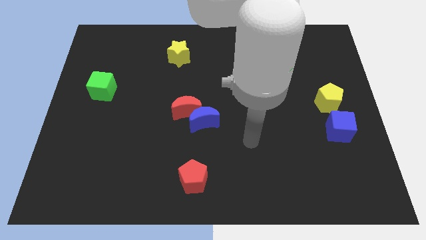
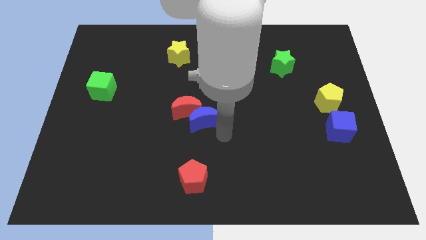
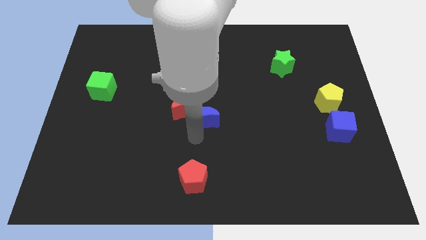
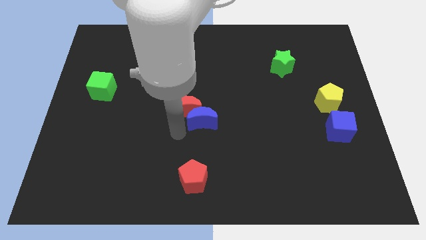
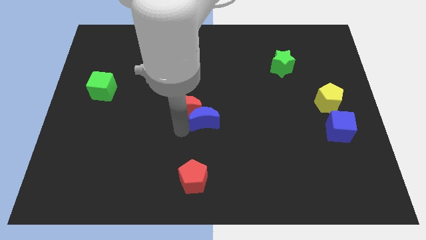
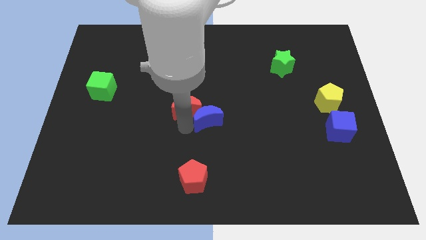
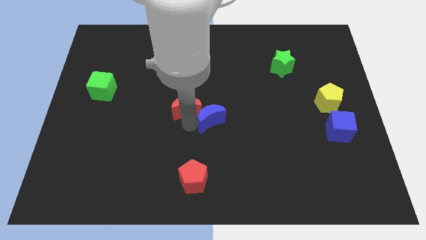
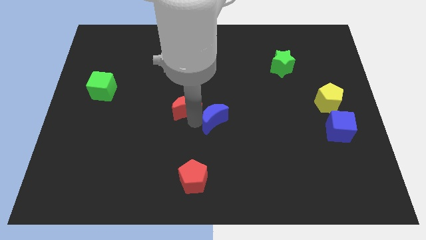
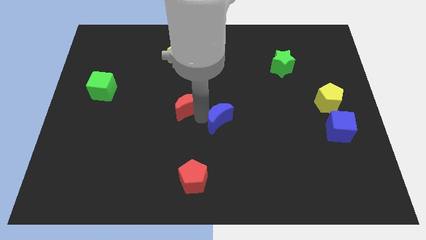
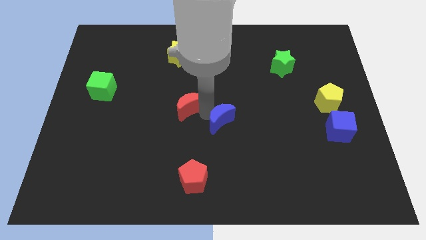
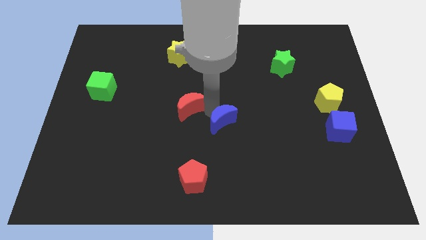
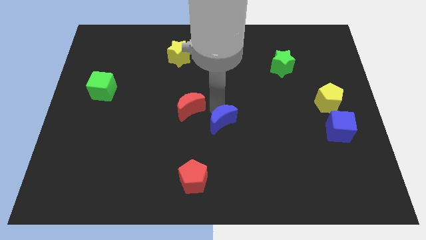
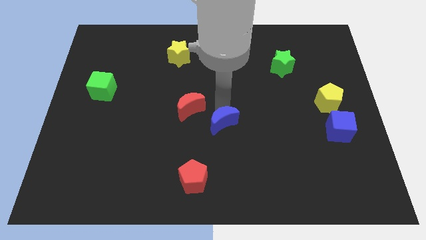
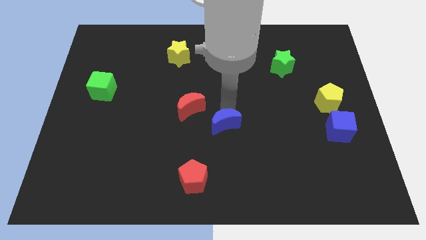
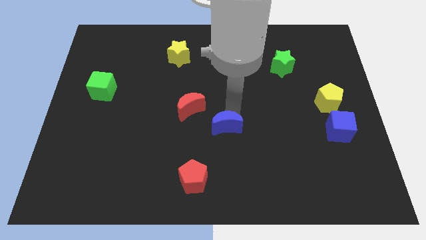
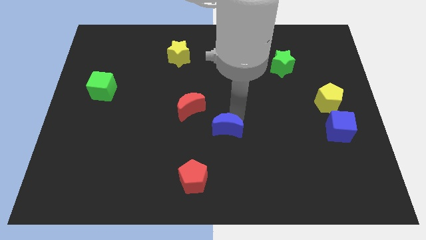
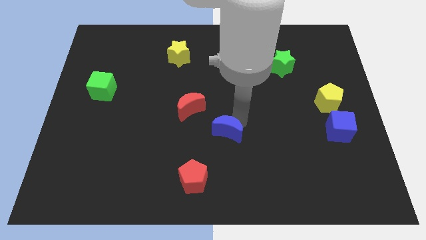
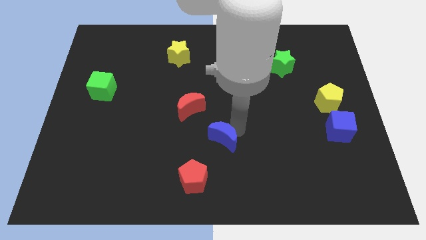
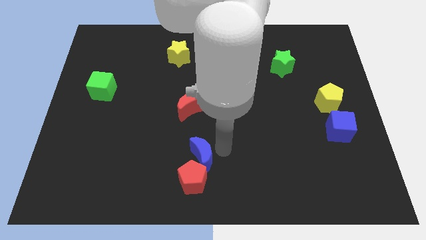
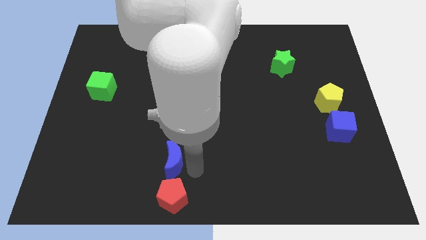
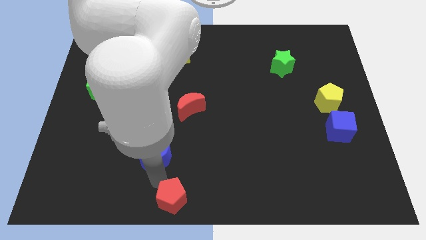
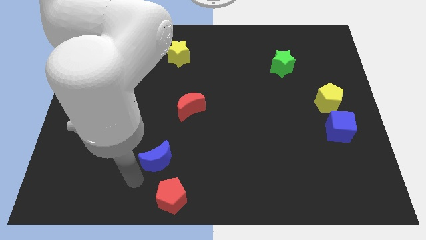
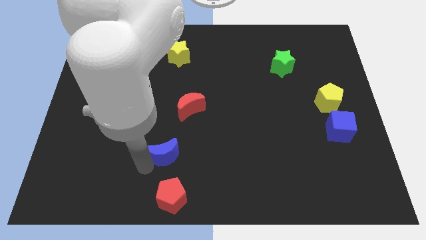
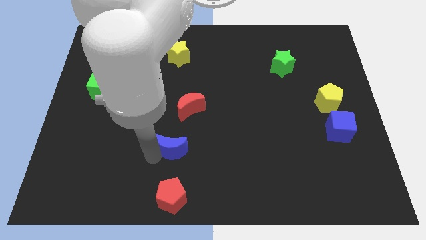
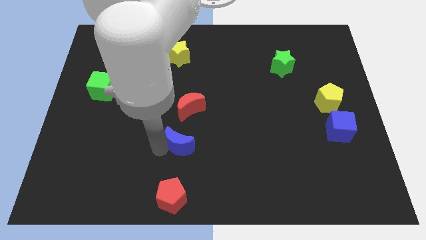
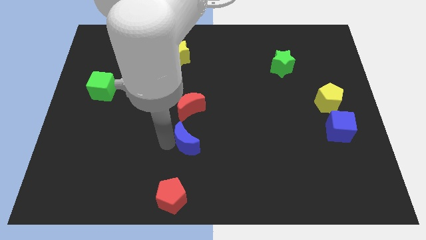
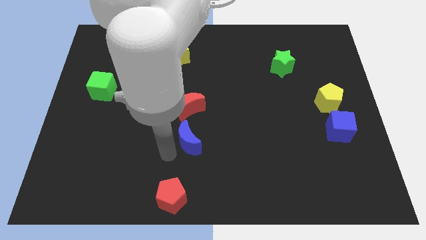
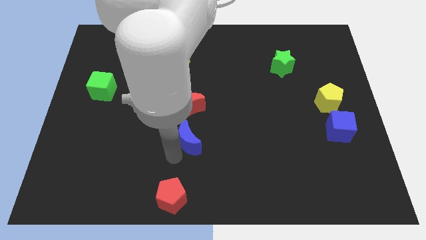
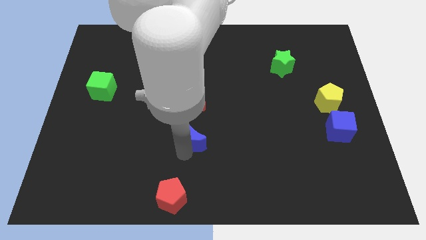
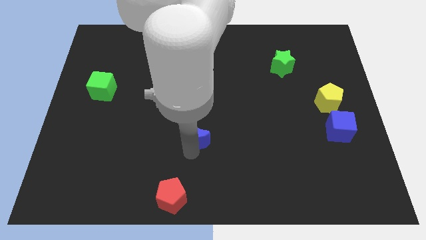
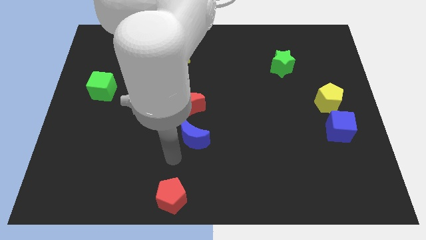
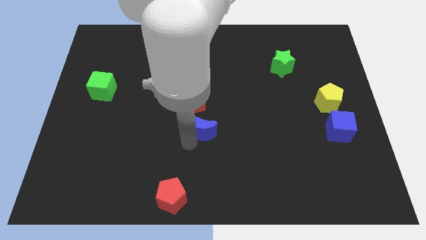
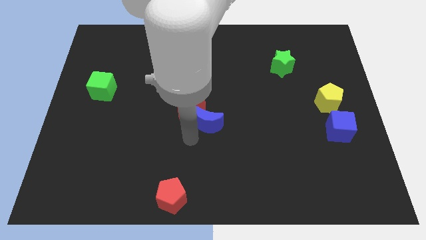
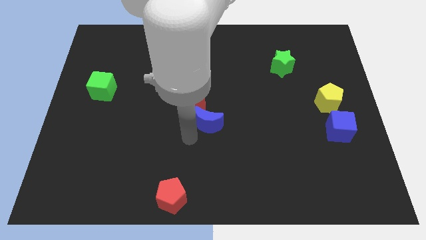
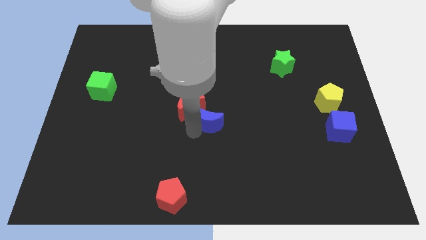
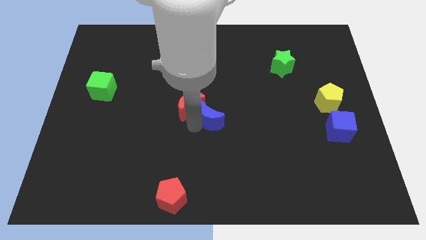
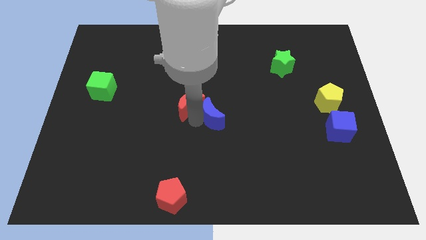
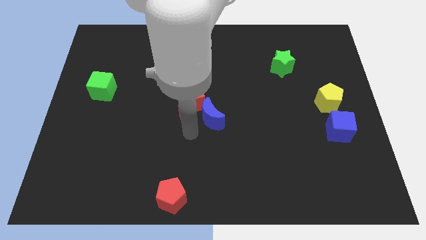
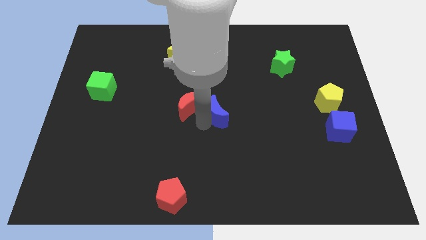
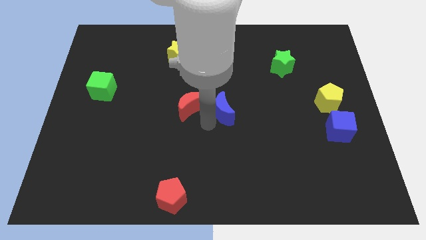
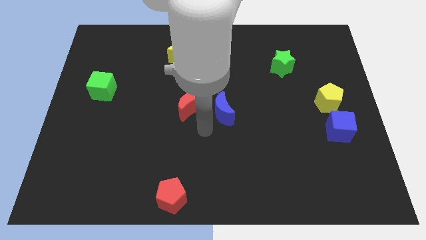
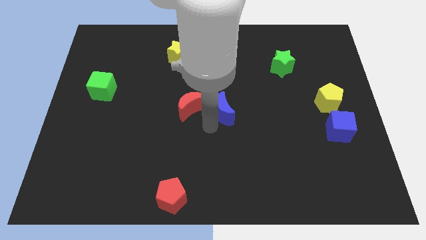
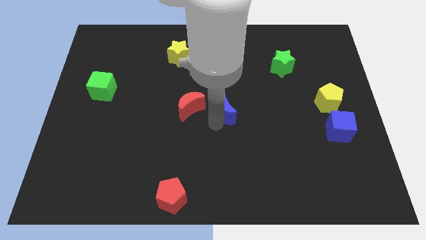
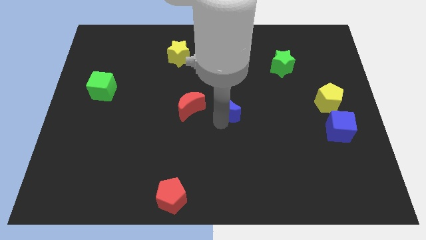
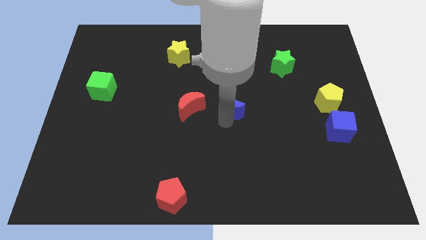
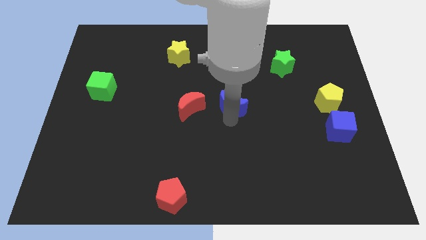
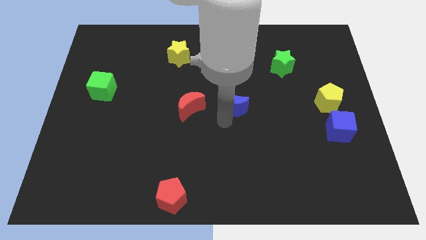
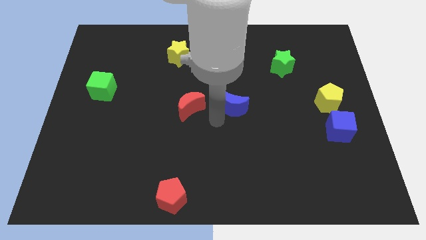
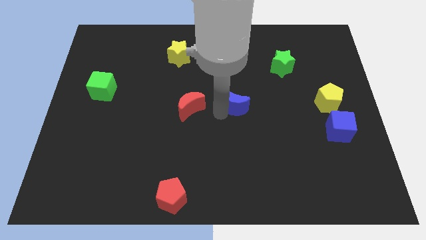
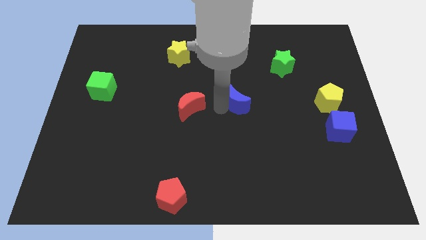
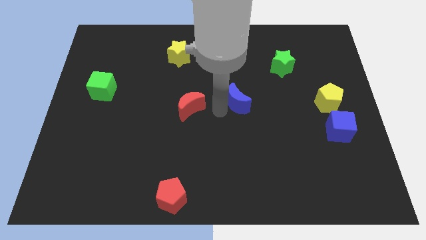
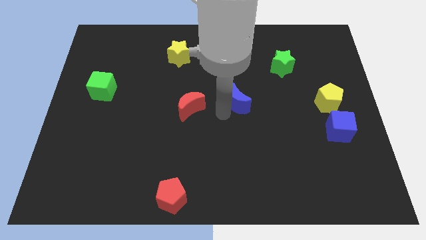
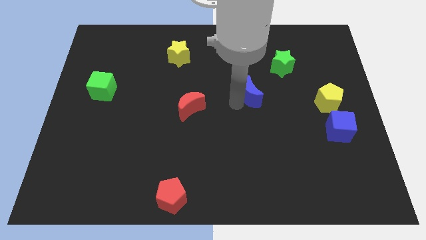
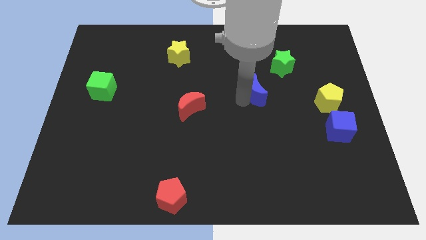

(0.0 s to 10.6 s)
push the blue moon to the bottom left side of the green star

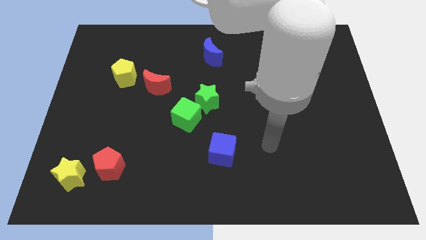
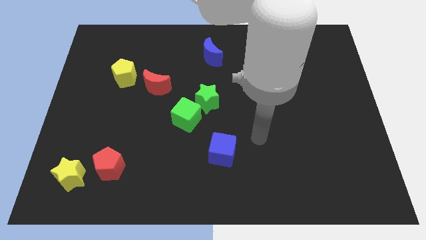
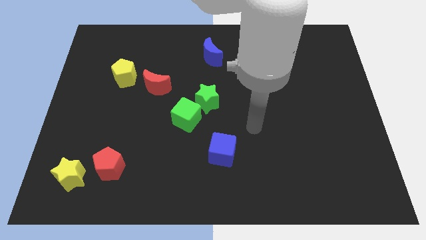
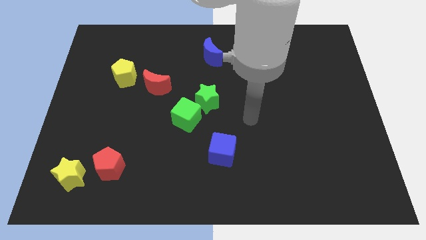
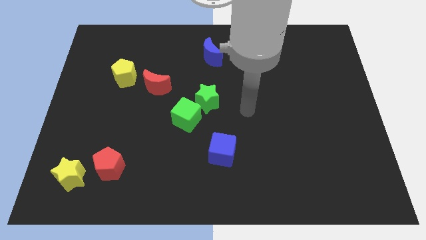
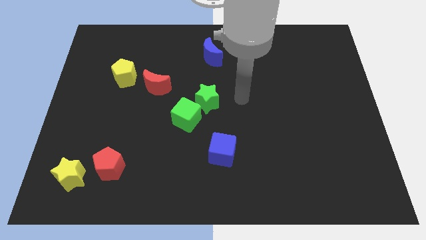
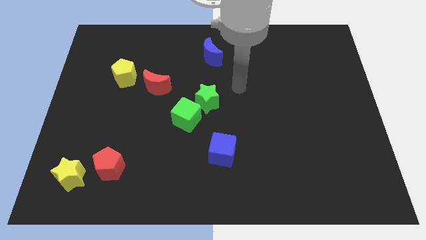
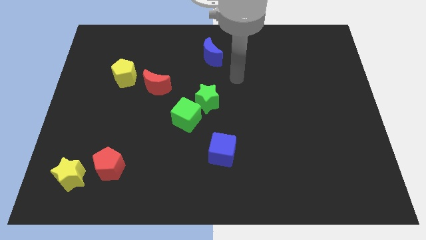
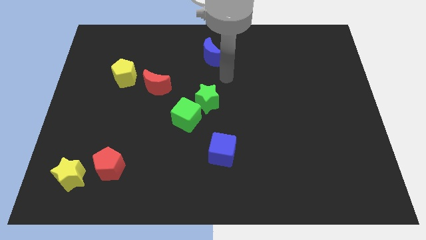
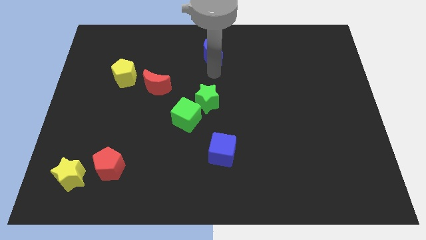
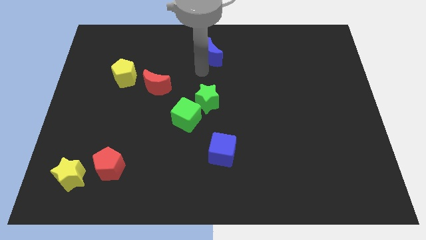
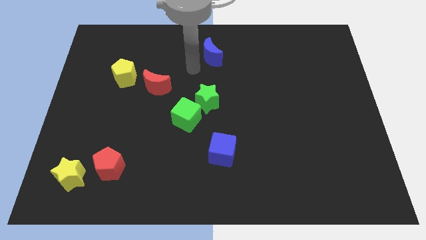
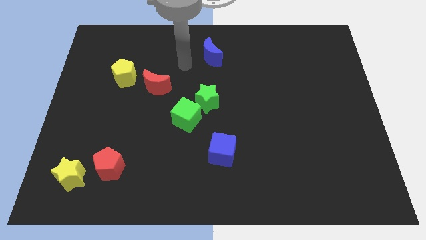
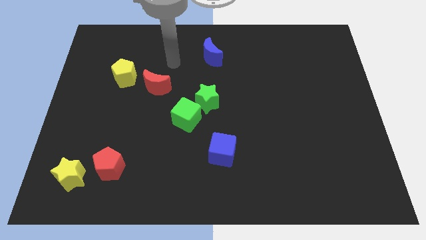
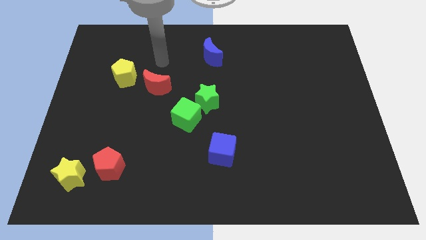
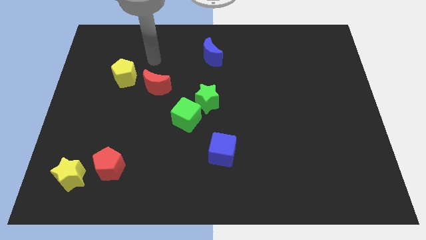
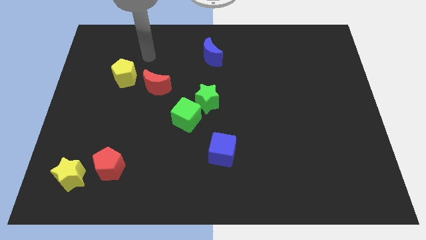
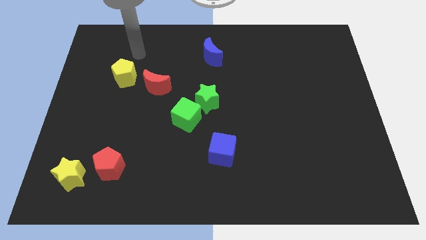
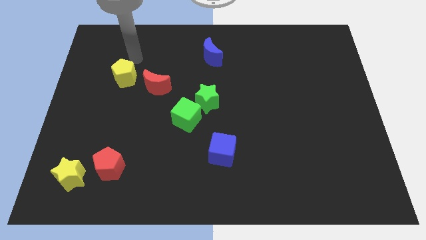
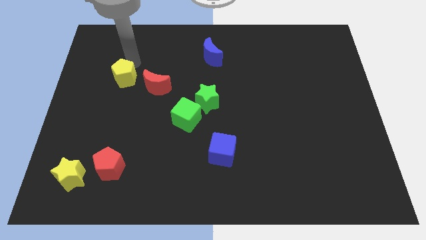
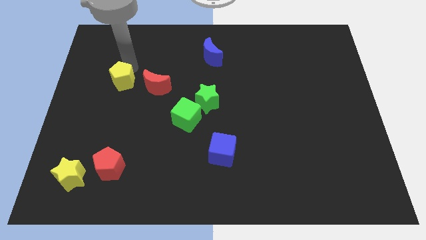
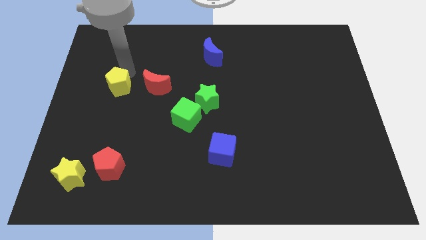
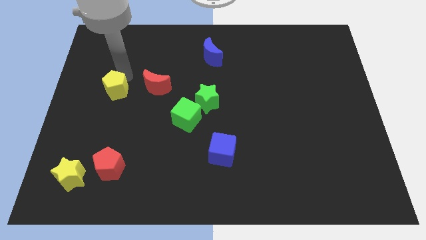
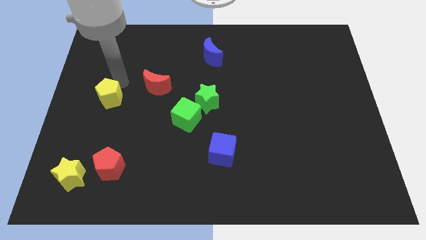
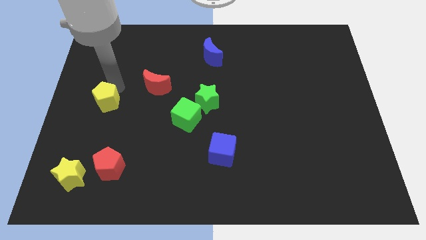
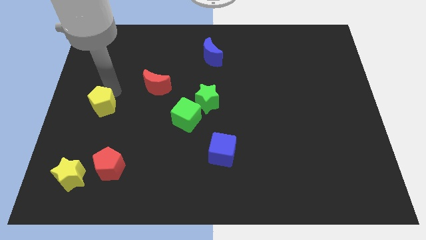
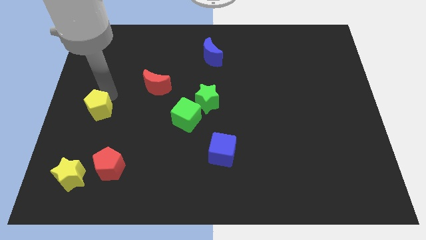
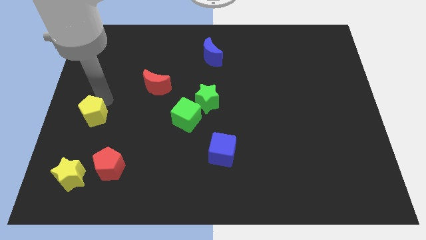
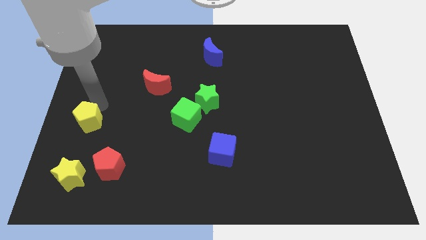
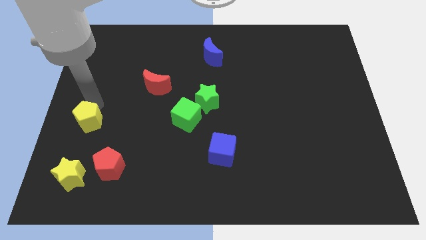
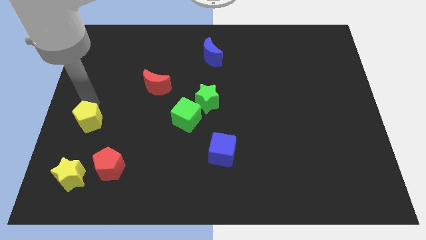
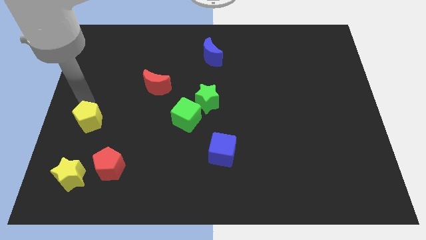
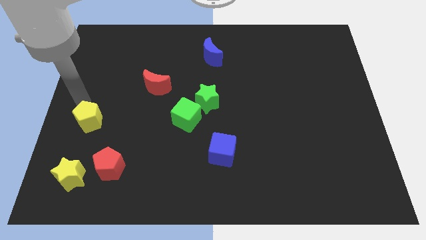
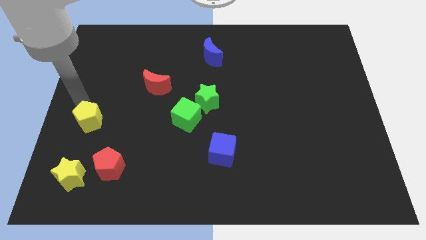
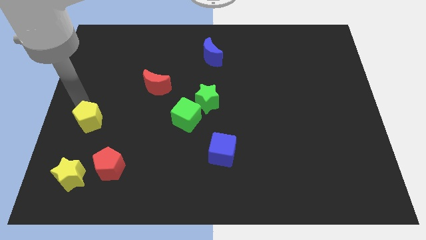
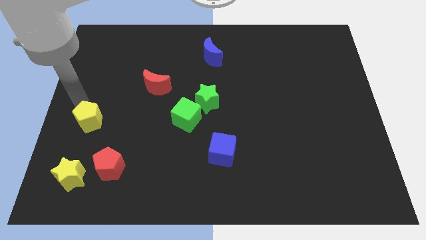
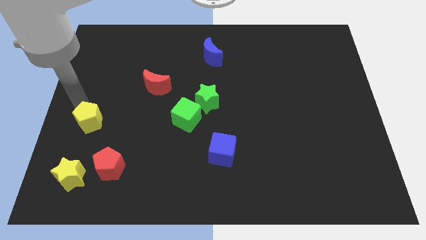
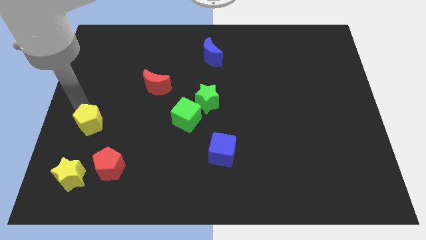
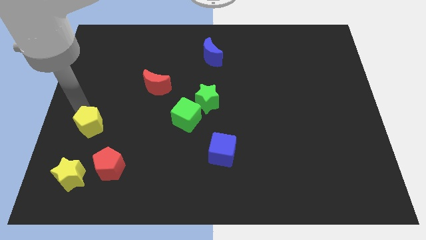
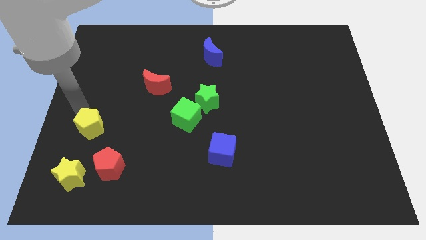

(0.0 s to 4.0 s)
slide the yellow pentagon to the top left of the red pentagon
